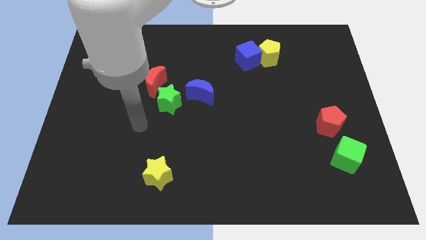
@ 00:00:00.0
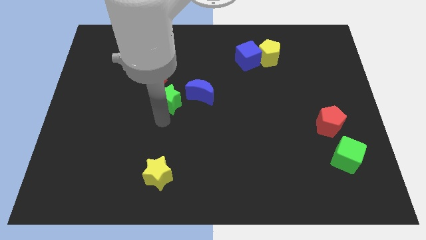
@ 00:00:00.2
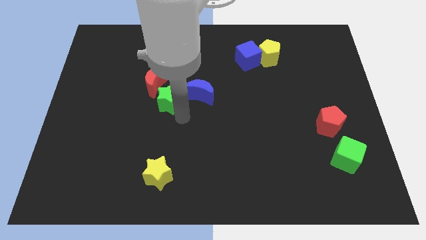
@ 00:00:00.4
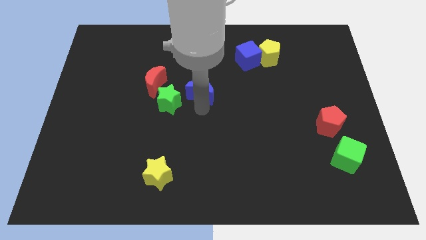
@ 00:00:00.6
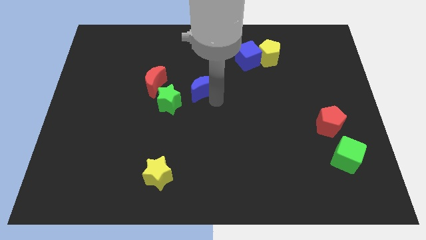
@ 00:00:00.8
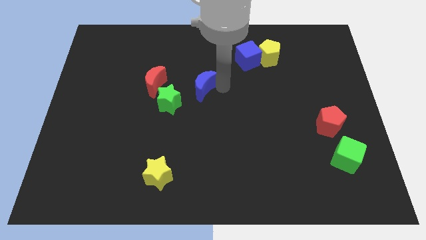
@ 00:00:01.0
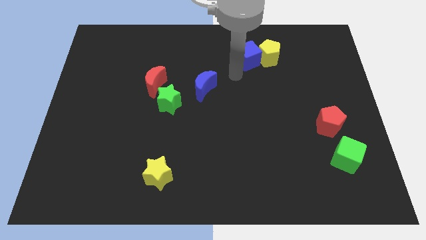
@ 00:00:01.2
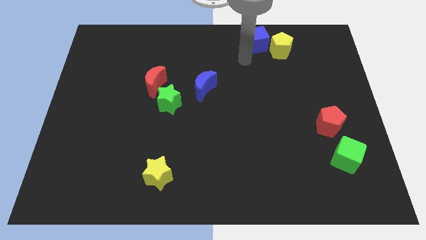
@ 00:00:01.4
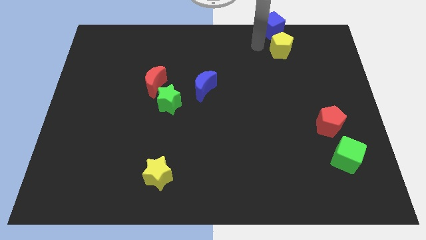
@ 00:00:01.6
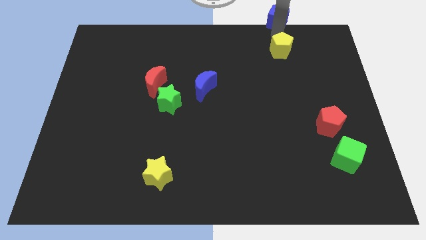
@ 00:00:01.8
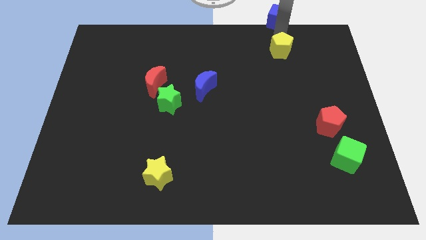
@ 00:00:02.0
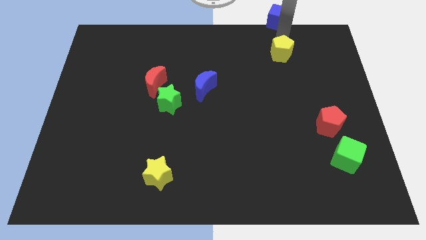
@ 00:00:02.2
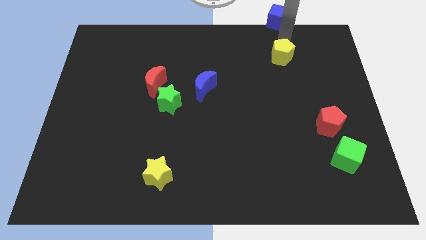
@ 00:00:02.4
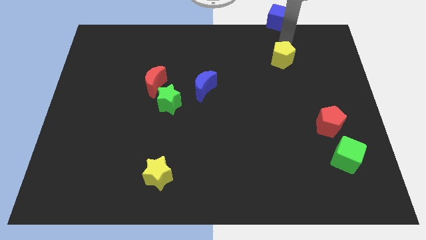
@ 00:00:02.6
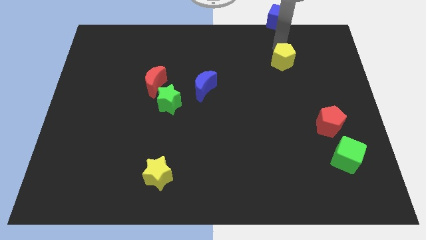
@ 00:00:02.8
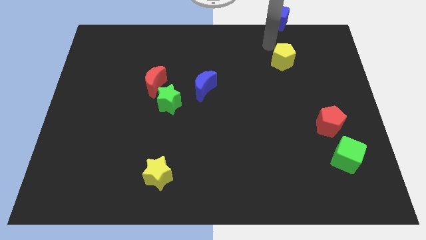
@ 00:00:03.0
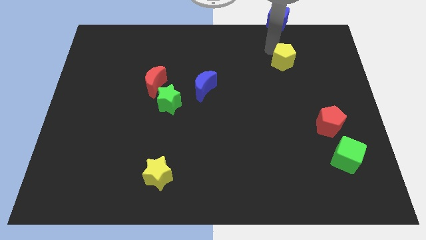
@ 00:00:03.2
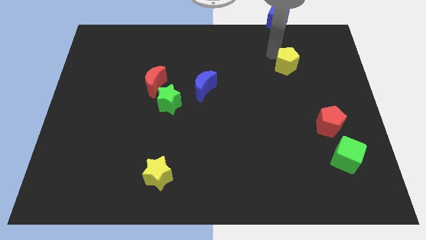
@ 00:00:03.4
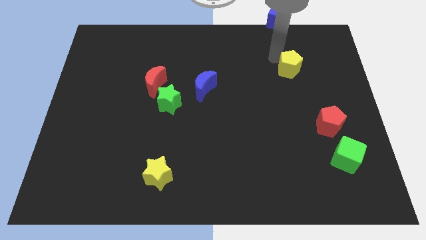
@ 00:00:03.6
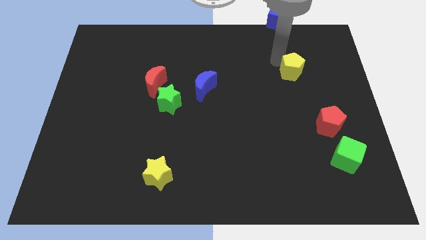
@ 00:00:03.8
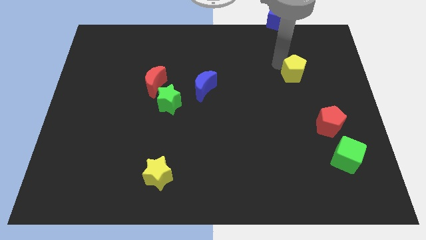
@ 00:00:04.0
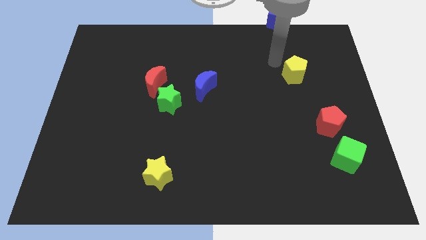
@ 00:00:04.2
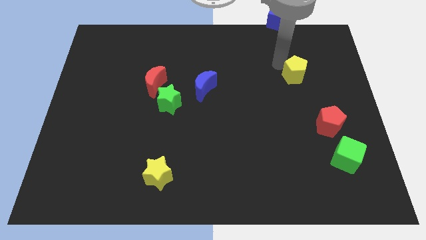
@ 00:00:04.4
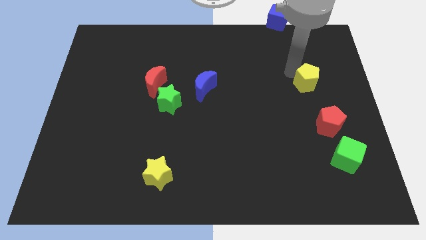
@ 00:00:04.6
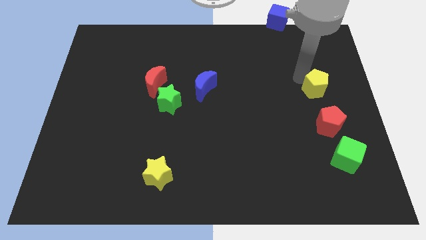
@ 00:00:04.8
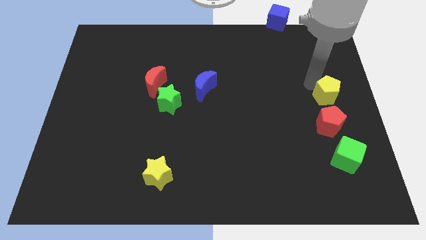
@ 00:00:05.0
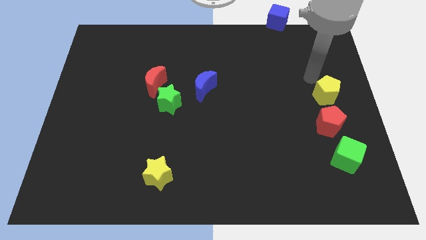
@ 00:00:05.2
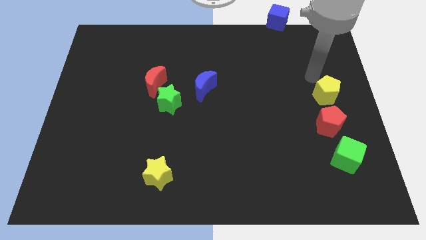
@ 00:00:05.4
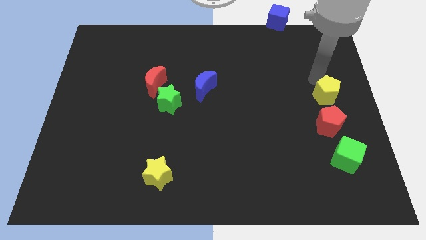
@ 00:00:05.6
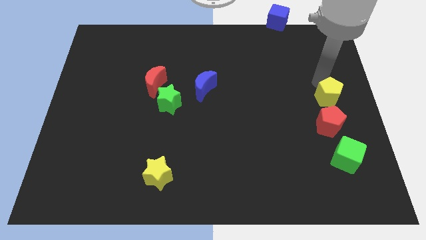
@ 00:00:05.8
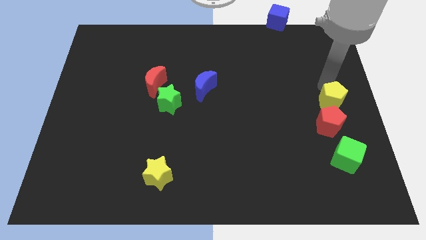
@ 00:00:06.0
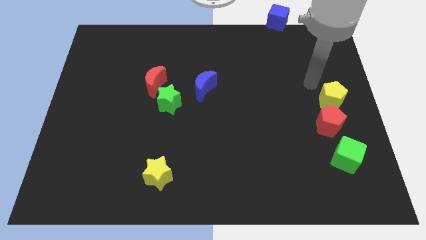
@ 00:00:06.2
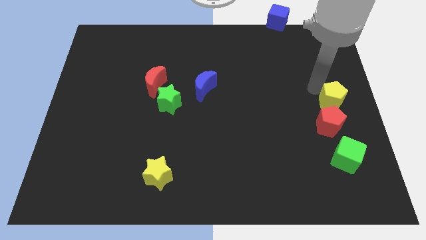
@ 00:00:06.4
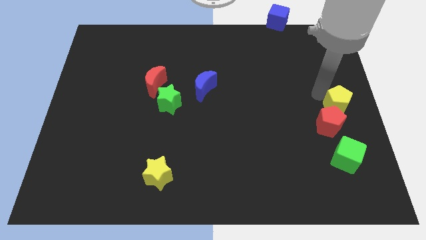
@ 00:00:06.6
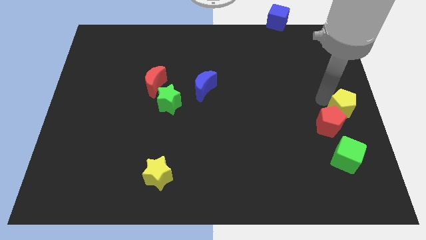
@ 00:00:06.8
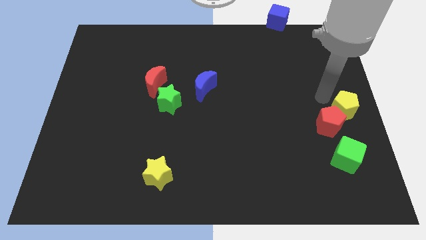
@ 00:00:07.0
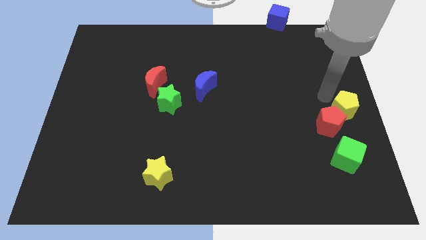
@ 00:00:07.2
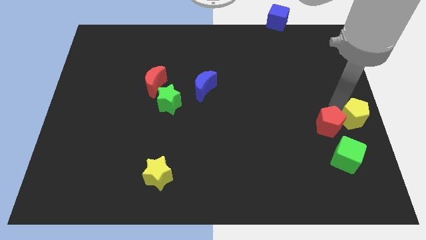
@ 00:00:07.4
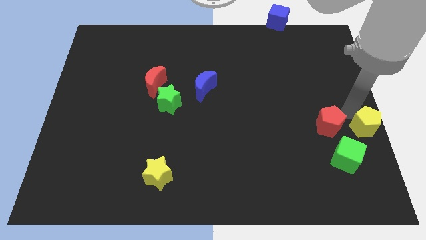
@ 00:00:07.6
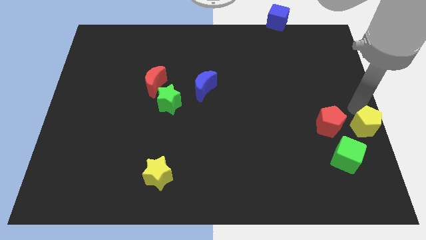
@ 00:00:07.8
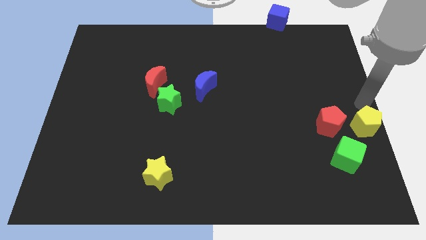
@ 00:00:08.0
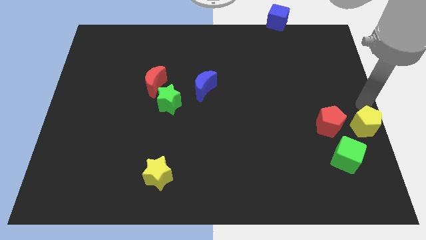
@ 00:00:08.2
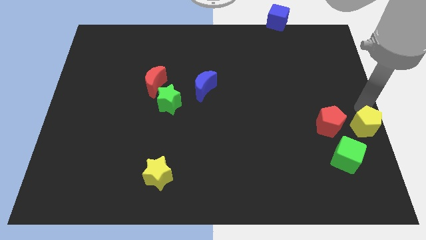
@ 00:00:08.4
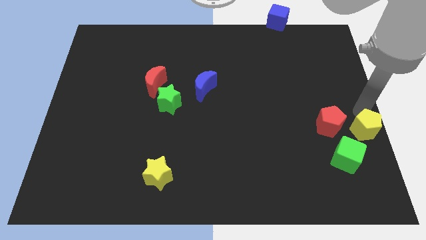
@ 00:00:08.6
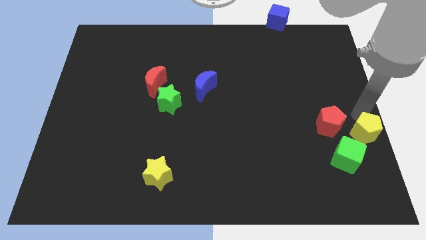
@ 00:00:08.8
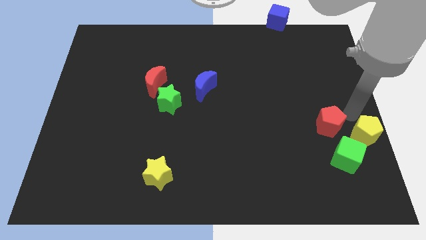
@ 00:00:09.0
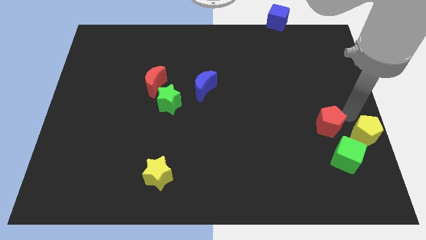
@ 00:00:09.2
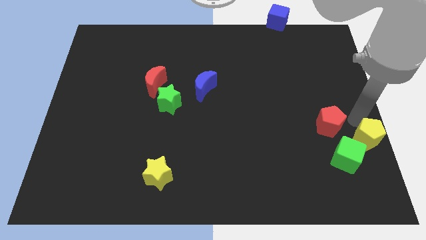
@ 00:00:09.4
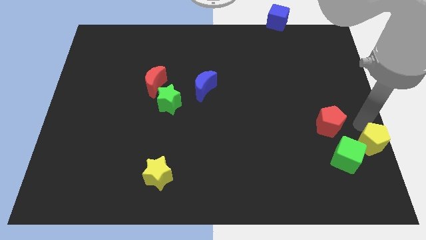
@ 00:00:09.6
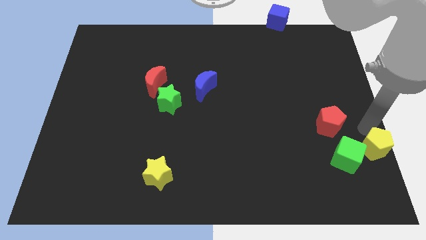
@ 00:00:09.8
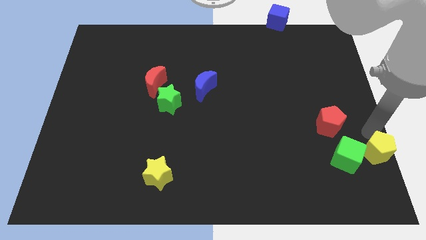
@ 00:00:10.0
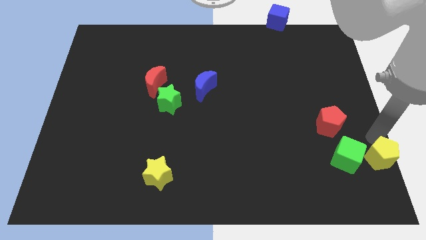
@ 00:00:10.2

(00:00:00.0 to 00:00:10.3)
put the yellow pentagon to the bottom right
